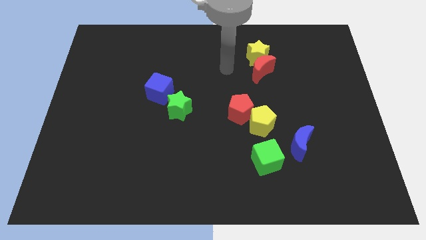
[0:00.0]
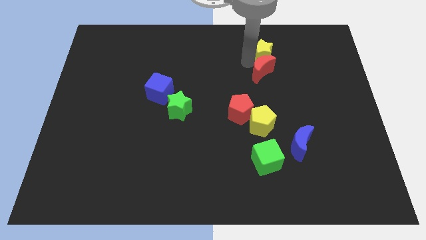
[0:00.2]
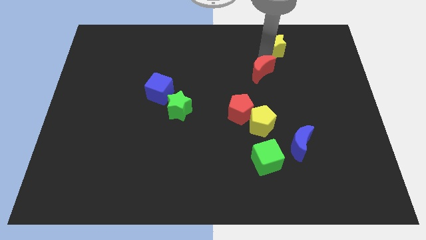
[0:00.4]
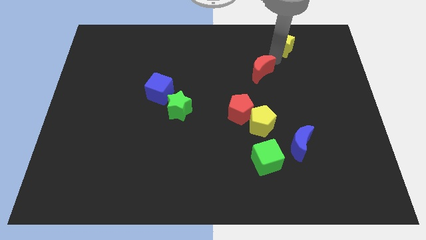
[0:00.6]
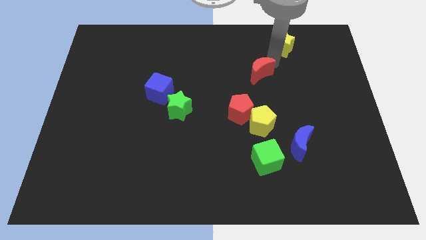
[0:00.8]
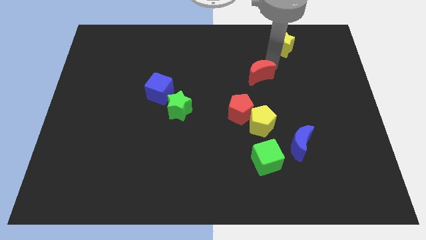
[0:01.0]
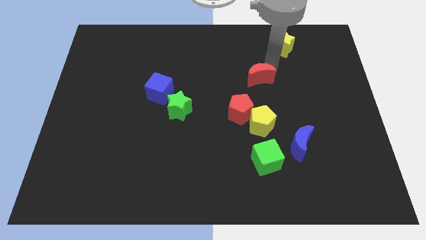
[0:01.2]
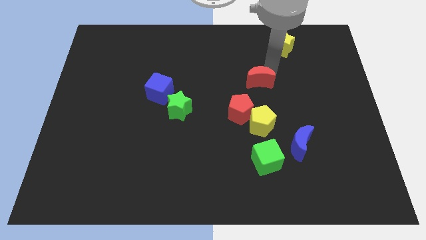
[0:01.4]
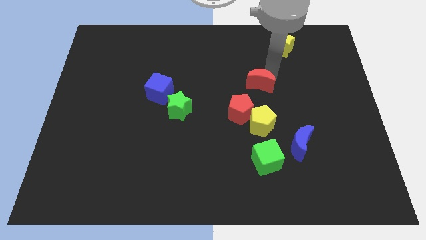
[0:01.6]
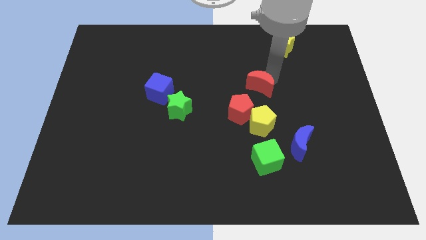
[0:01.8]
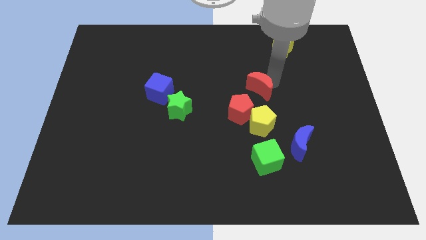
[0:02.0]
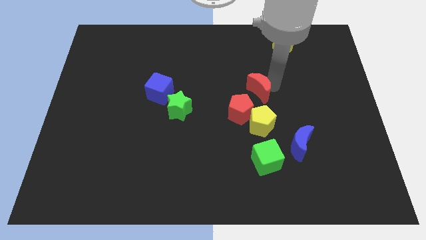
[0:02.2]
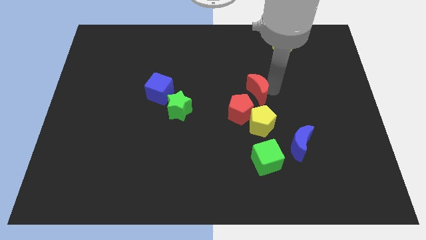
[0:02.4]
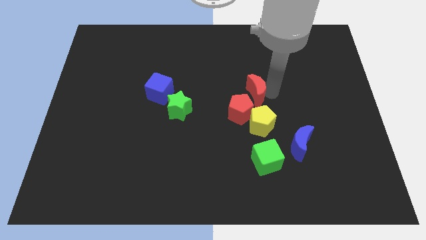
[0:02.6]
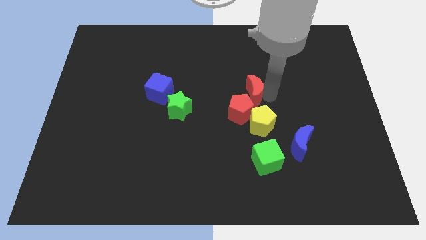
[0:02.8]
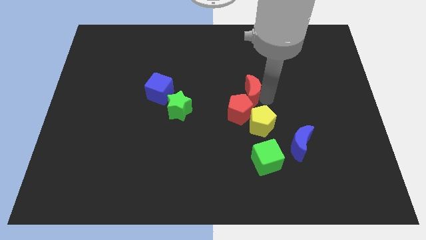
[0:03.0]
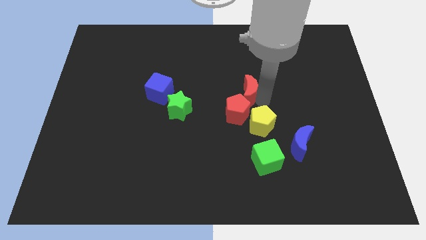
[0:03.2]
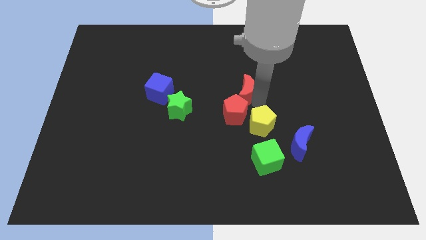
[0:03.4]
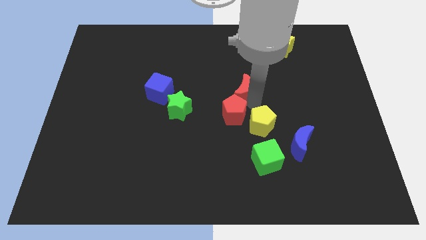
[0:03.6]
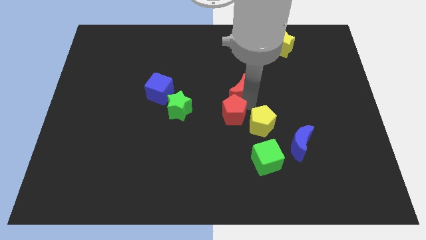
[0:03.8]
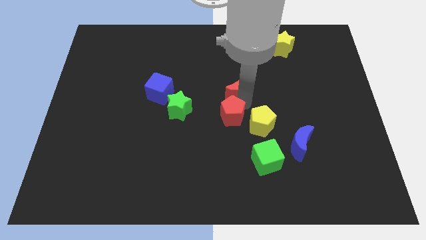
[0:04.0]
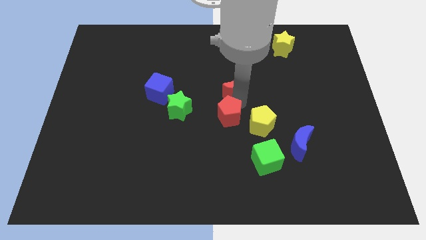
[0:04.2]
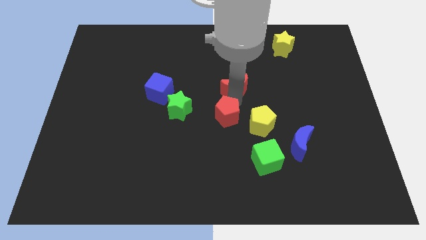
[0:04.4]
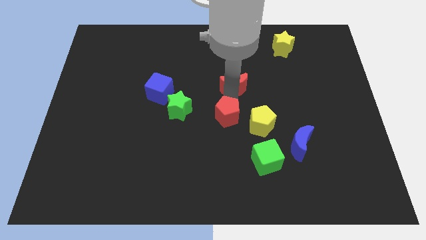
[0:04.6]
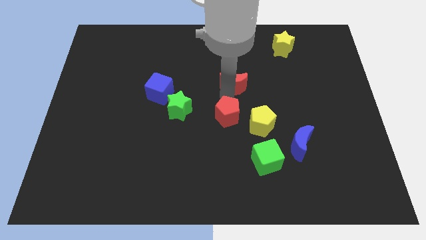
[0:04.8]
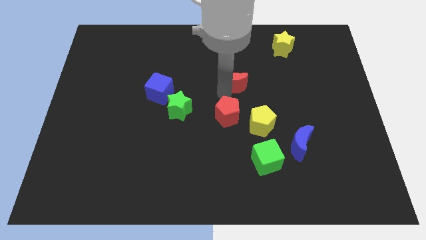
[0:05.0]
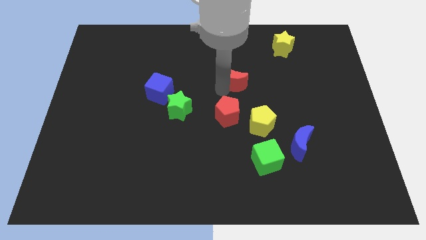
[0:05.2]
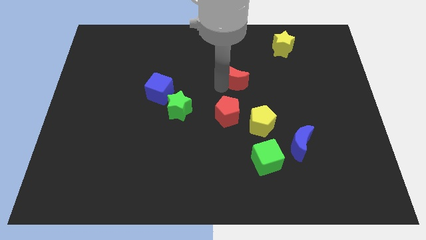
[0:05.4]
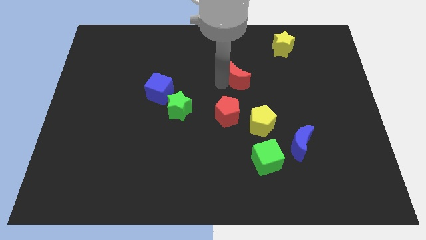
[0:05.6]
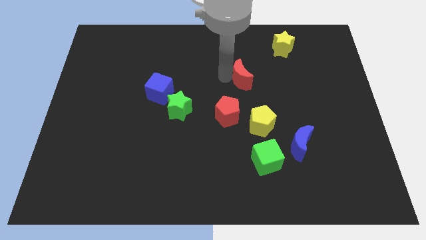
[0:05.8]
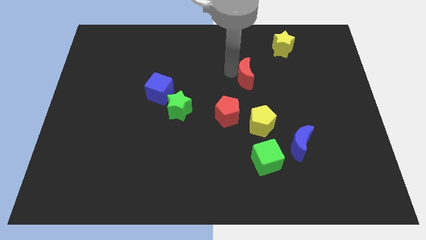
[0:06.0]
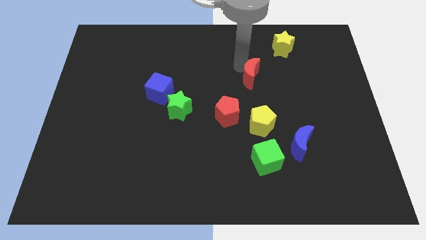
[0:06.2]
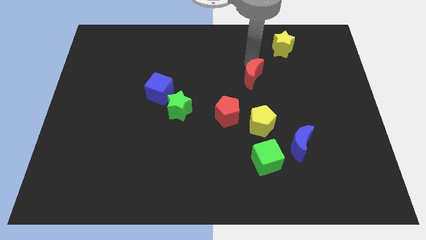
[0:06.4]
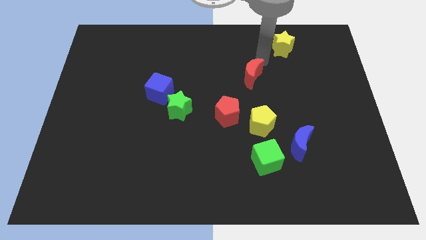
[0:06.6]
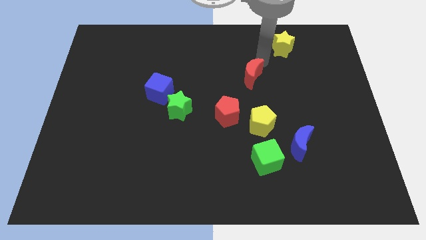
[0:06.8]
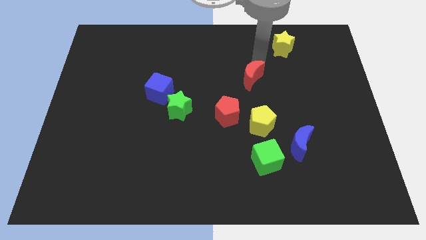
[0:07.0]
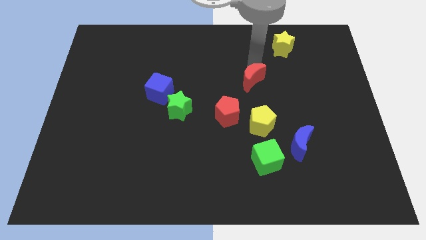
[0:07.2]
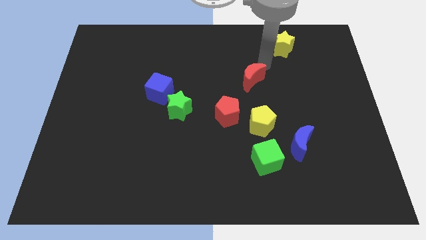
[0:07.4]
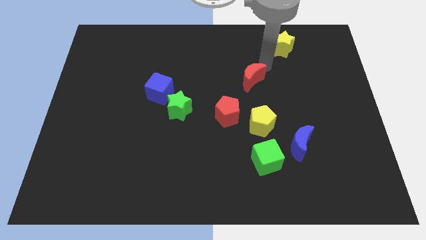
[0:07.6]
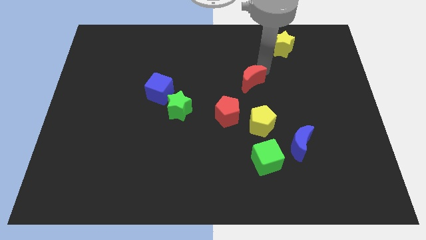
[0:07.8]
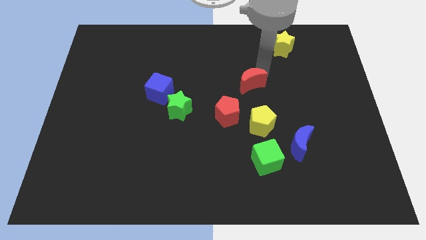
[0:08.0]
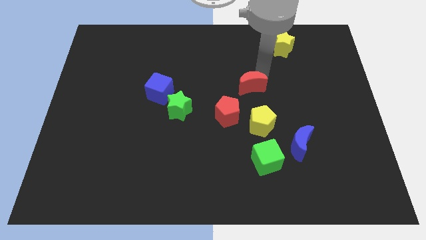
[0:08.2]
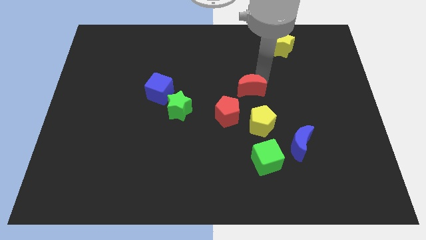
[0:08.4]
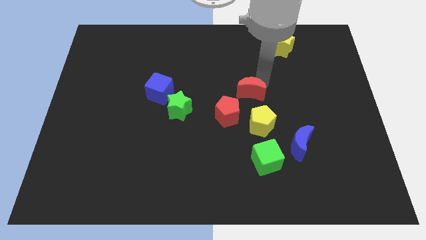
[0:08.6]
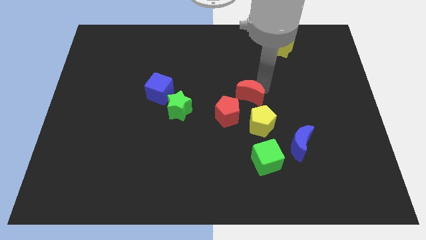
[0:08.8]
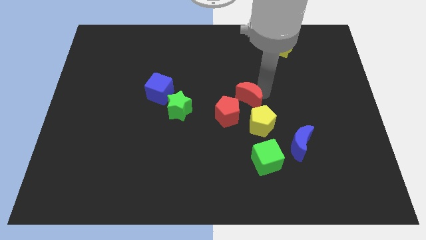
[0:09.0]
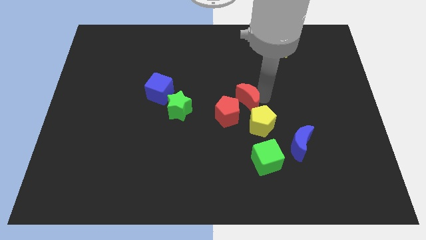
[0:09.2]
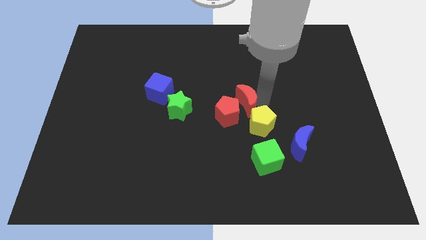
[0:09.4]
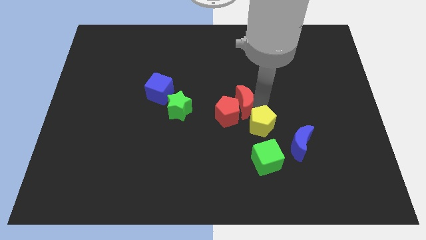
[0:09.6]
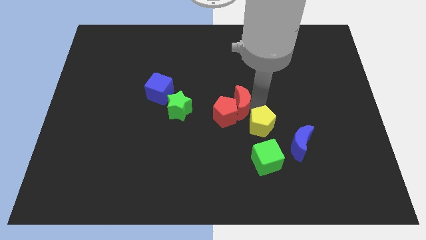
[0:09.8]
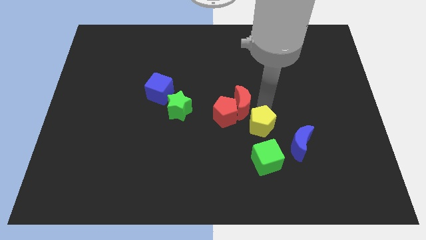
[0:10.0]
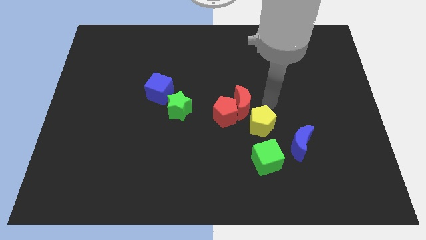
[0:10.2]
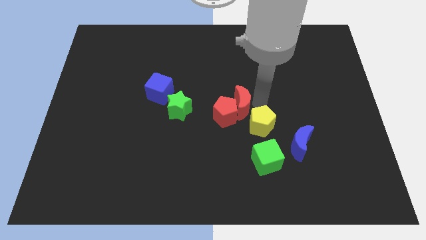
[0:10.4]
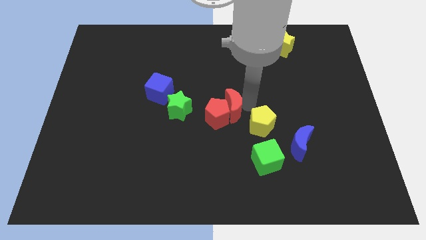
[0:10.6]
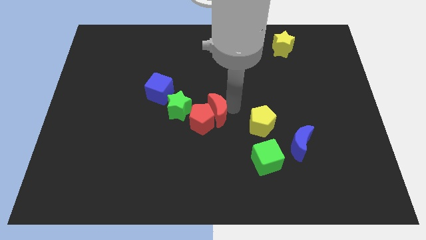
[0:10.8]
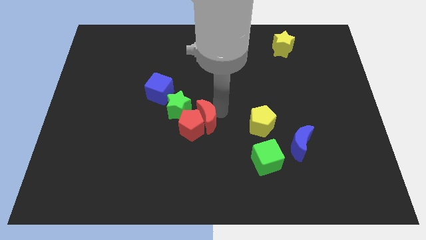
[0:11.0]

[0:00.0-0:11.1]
slide the red moon diagonally down and left

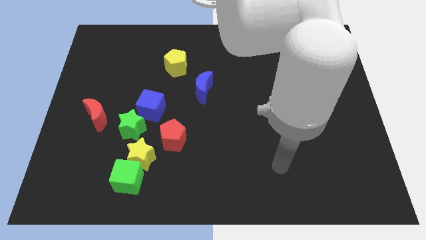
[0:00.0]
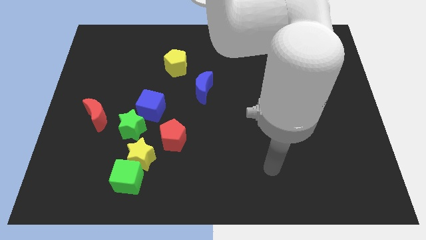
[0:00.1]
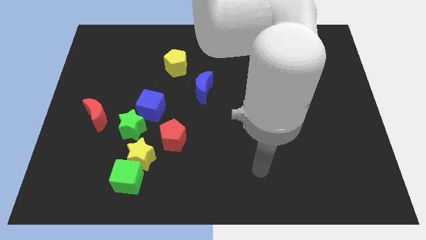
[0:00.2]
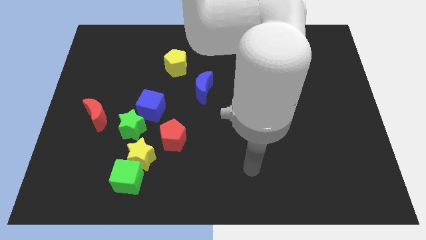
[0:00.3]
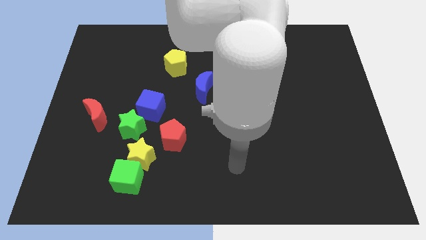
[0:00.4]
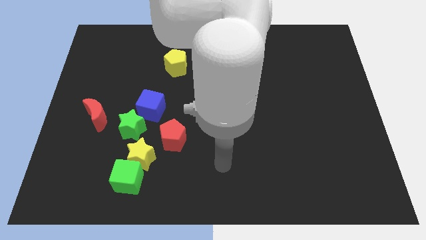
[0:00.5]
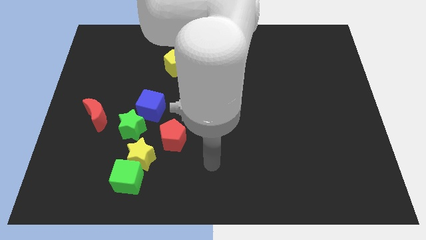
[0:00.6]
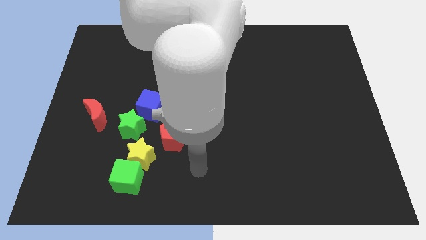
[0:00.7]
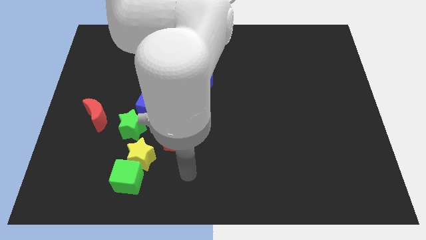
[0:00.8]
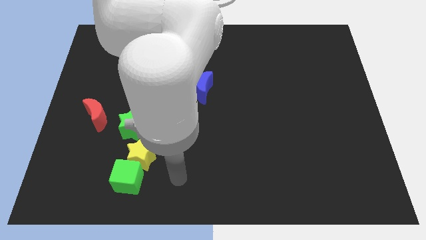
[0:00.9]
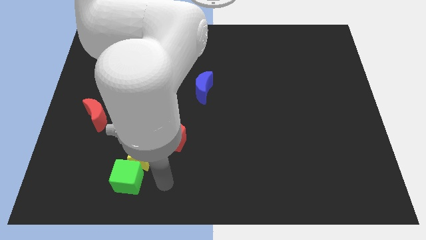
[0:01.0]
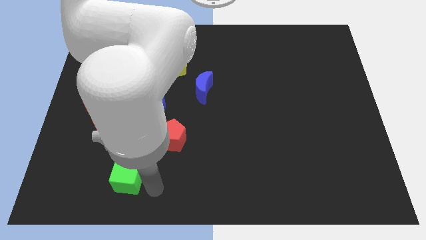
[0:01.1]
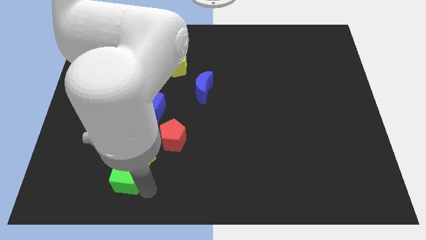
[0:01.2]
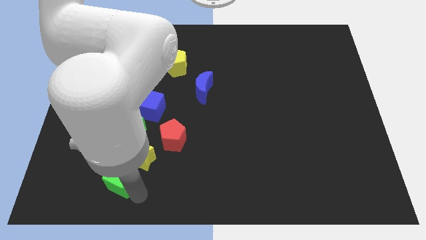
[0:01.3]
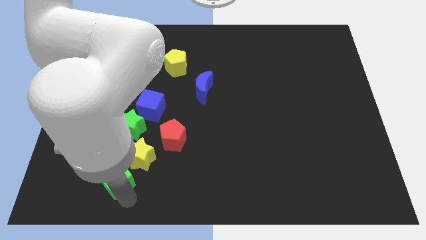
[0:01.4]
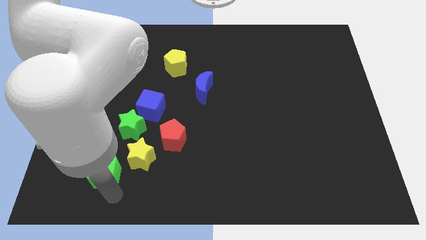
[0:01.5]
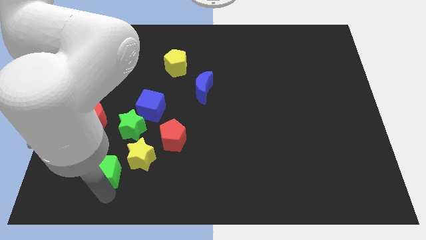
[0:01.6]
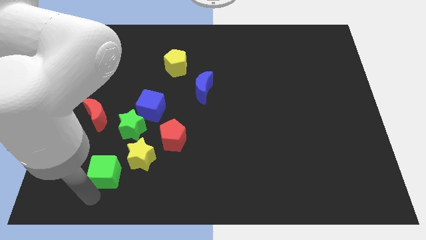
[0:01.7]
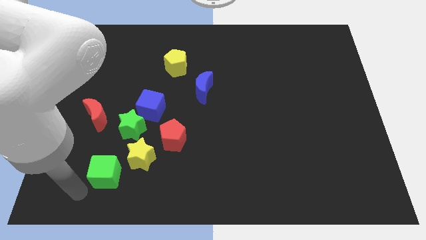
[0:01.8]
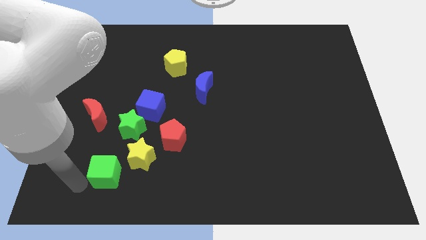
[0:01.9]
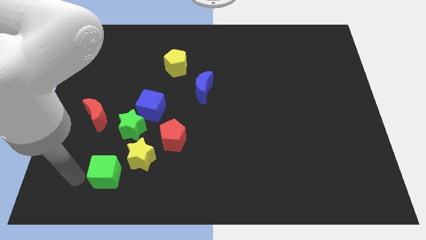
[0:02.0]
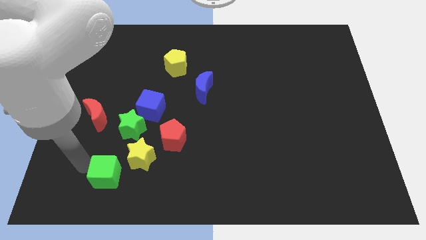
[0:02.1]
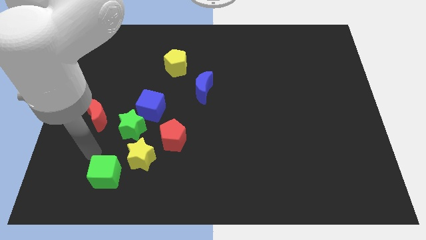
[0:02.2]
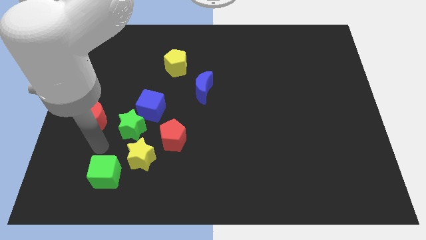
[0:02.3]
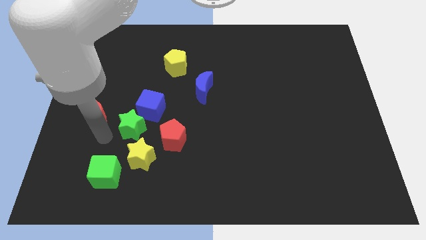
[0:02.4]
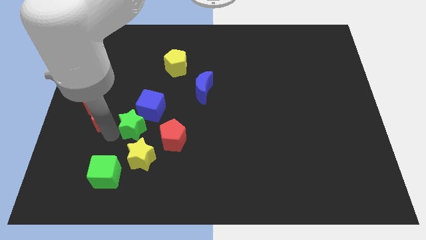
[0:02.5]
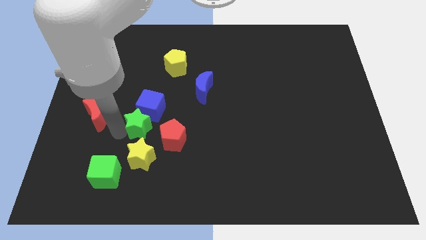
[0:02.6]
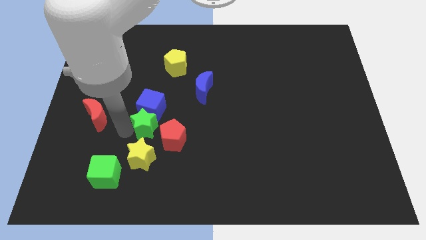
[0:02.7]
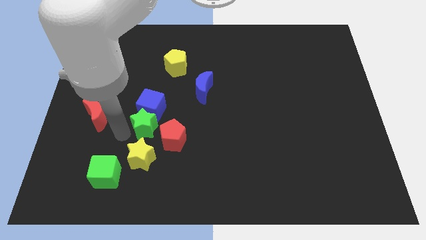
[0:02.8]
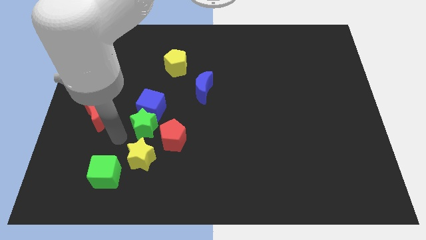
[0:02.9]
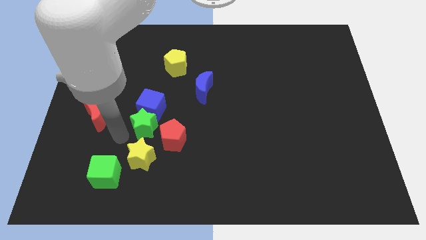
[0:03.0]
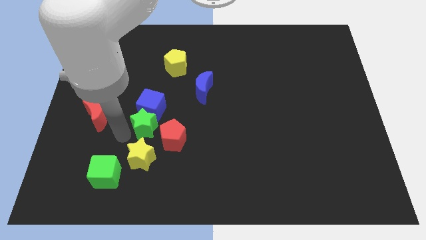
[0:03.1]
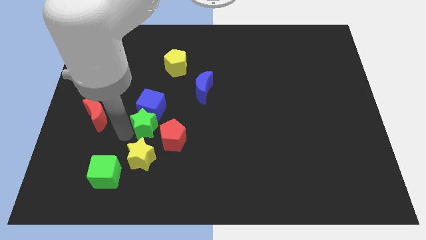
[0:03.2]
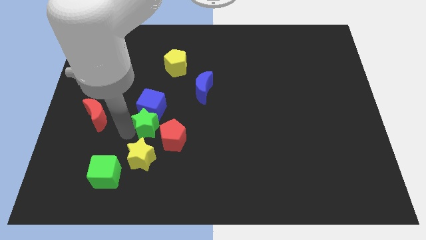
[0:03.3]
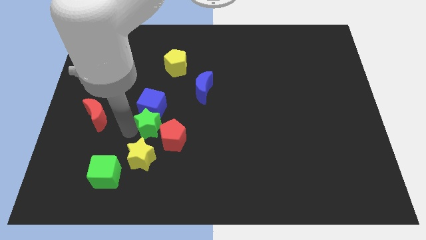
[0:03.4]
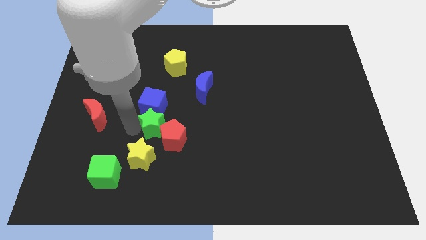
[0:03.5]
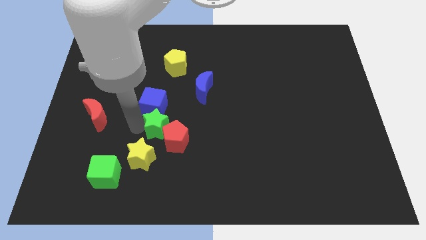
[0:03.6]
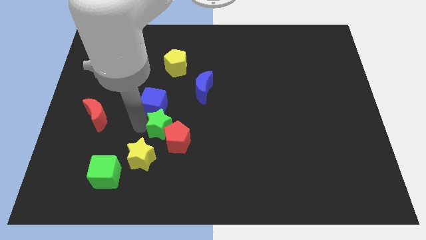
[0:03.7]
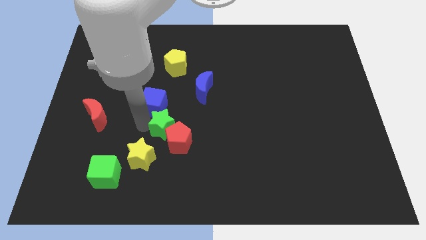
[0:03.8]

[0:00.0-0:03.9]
slightly move the green star right
